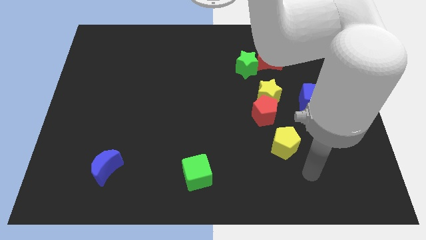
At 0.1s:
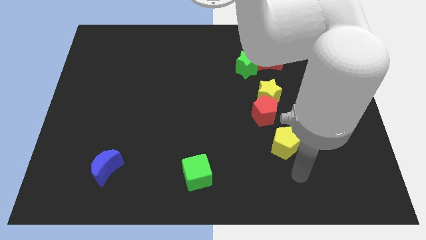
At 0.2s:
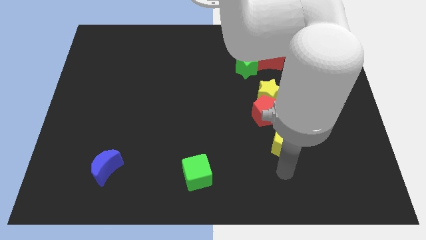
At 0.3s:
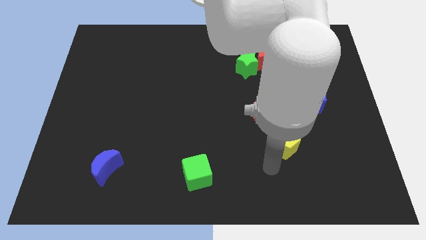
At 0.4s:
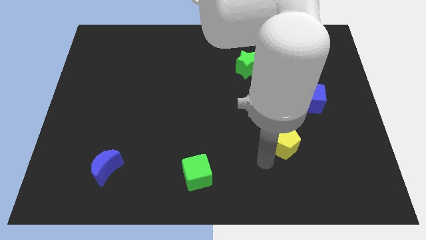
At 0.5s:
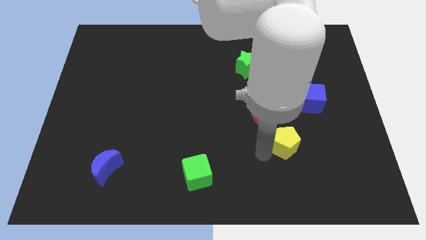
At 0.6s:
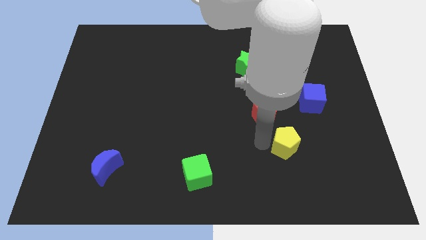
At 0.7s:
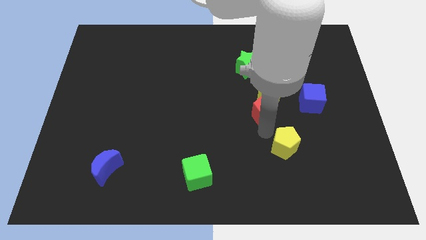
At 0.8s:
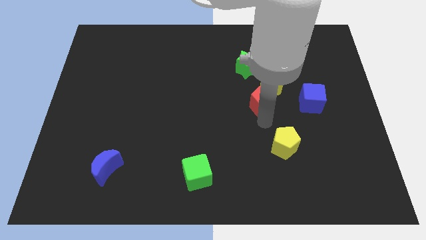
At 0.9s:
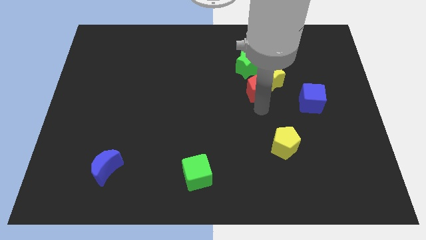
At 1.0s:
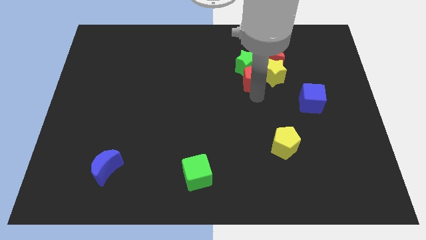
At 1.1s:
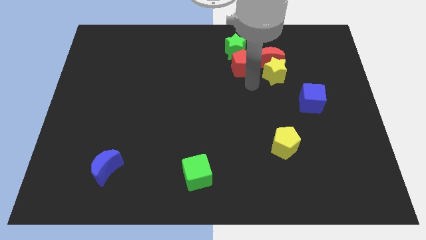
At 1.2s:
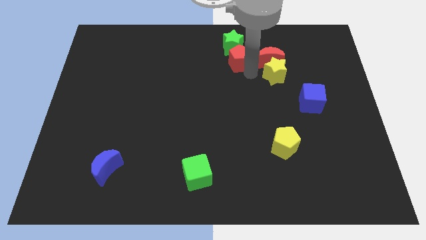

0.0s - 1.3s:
separate the yellow star from the red pentagon

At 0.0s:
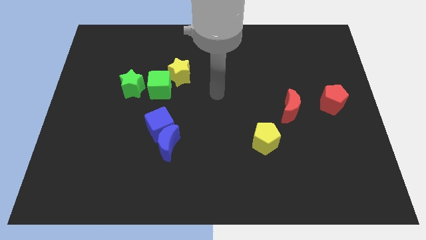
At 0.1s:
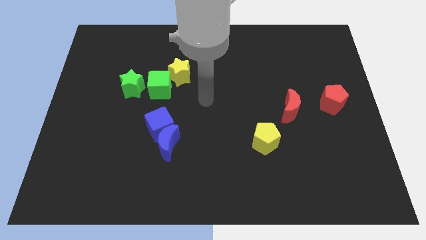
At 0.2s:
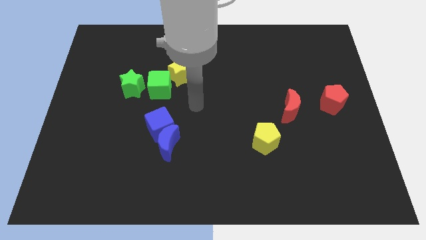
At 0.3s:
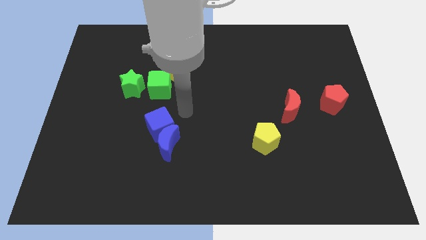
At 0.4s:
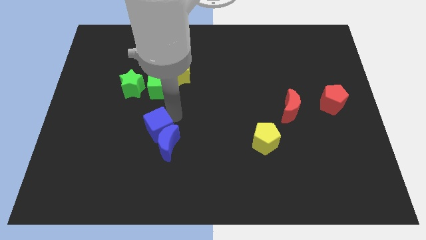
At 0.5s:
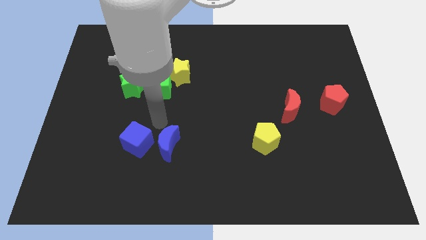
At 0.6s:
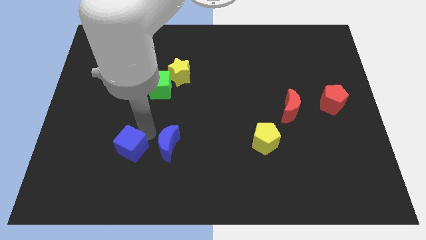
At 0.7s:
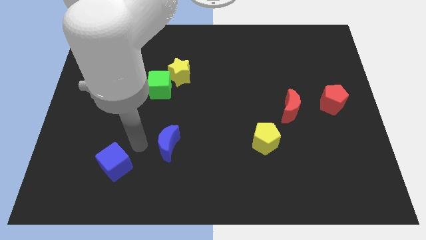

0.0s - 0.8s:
separate the blue moon from the blue cube

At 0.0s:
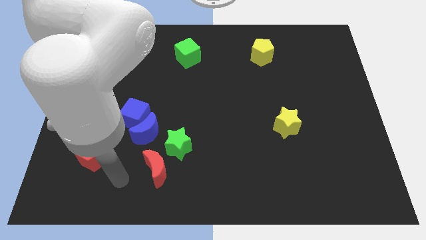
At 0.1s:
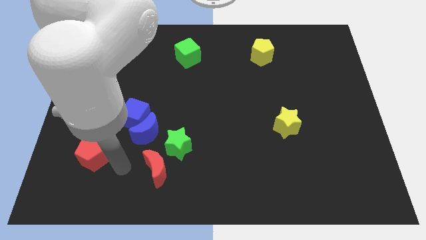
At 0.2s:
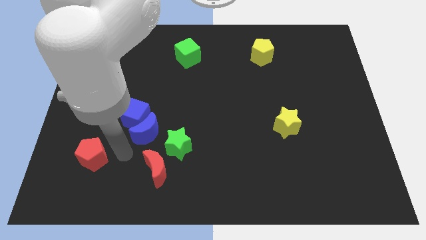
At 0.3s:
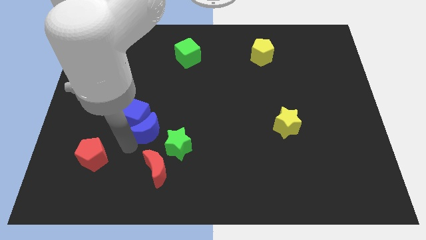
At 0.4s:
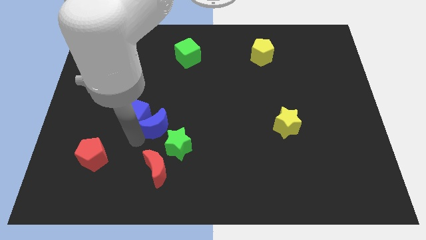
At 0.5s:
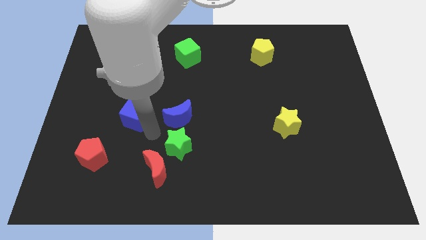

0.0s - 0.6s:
move the blue cube away from the blue moon

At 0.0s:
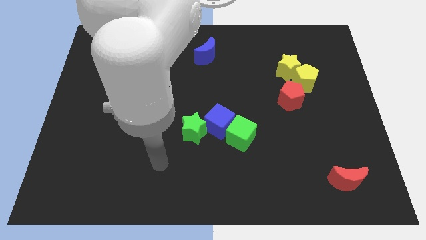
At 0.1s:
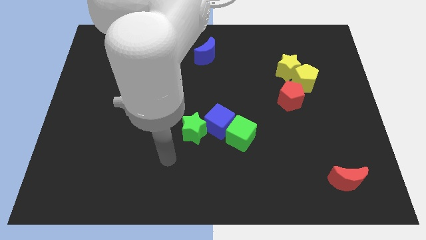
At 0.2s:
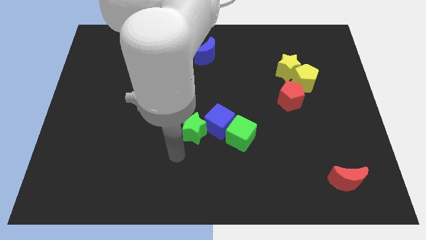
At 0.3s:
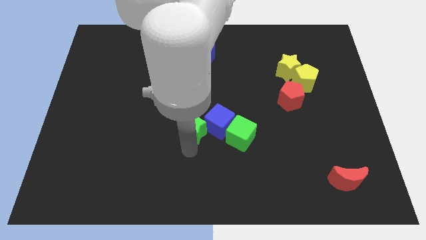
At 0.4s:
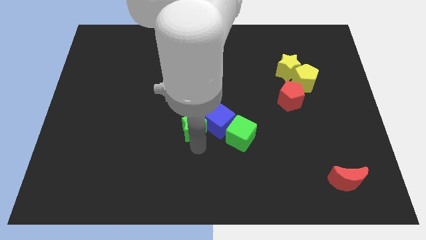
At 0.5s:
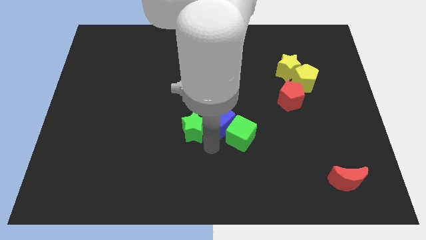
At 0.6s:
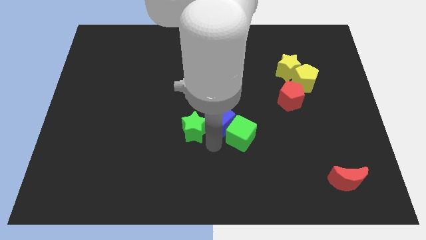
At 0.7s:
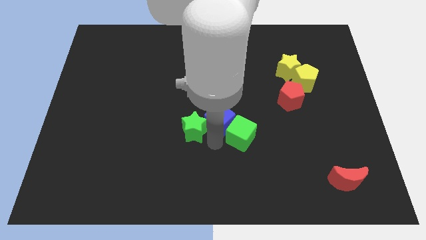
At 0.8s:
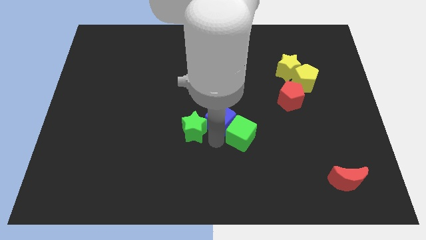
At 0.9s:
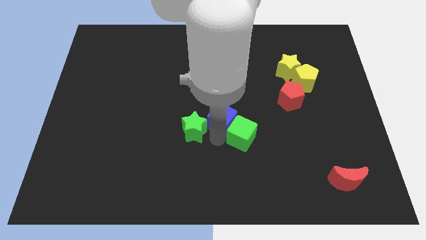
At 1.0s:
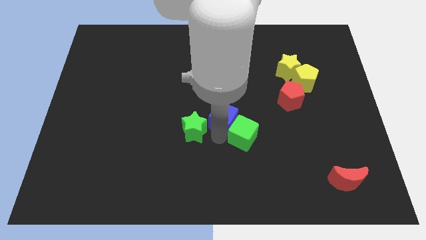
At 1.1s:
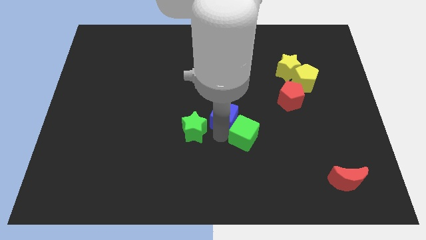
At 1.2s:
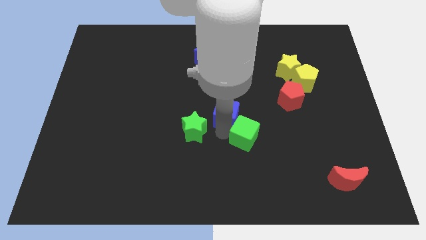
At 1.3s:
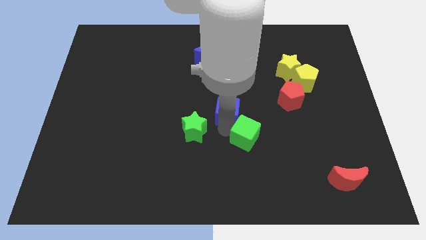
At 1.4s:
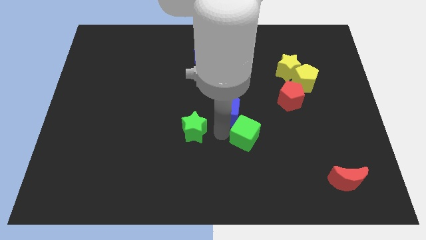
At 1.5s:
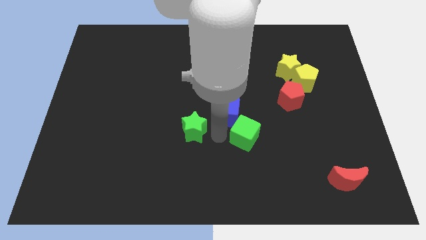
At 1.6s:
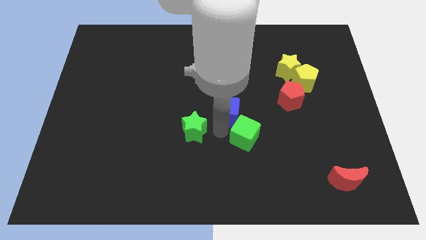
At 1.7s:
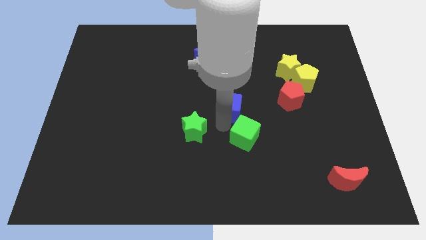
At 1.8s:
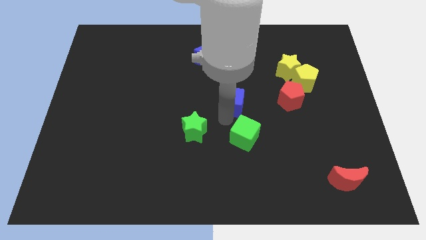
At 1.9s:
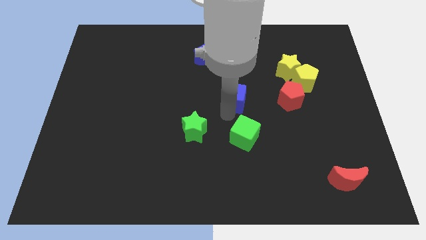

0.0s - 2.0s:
move the blue cube away from the green cube and green star

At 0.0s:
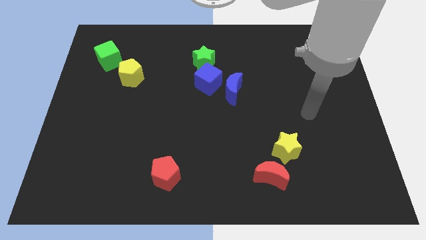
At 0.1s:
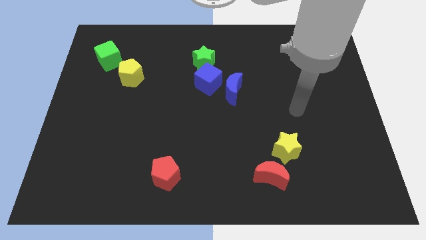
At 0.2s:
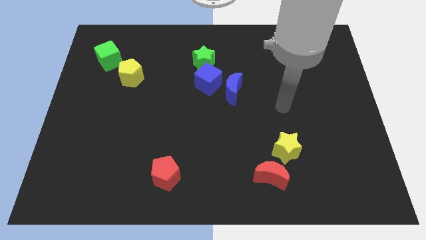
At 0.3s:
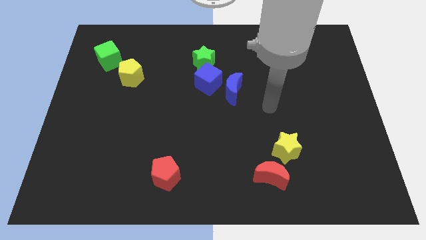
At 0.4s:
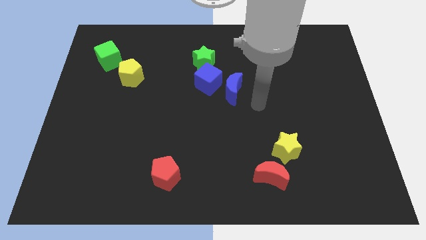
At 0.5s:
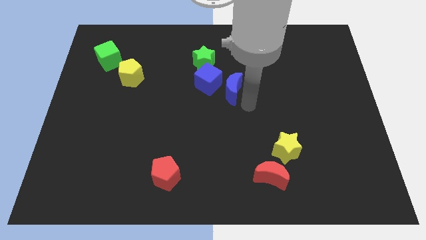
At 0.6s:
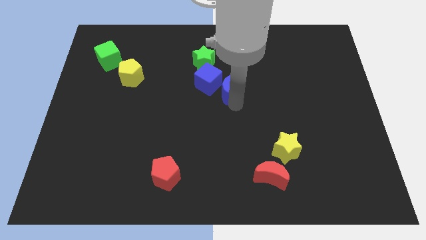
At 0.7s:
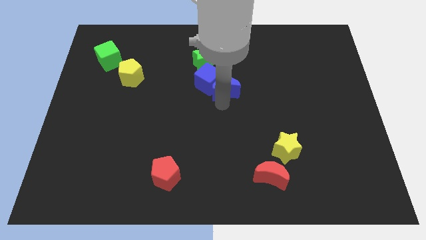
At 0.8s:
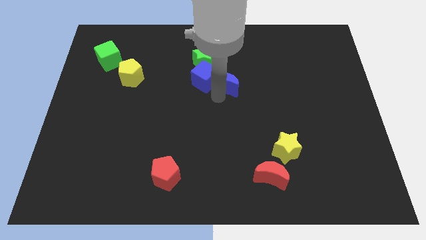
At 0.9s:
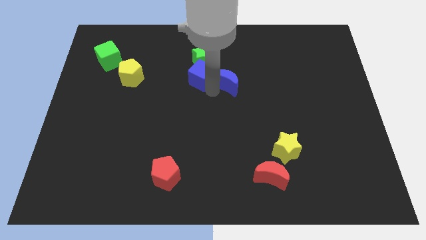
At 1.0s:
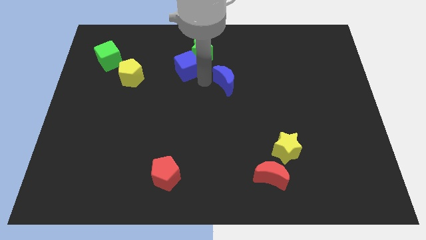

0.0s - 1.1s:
move the blue moon away from the blue cube

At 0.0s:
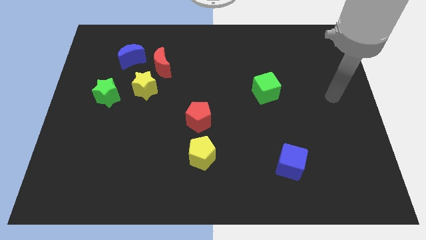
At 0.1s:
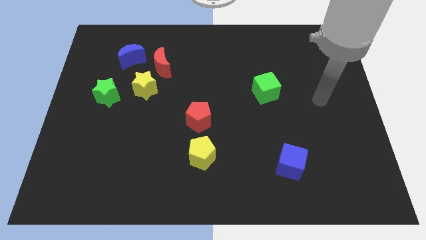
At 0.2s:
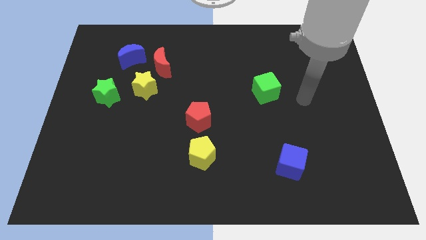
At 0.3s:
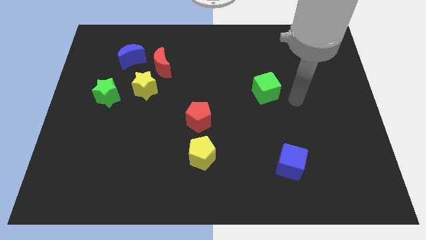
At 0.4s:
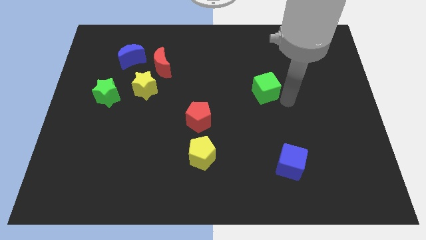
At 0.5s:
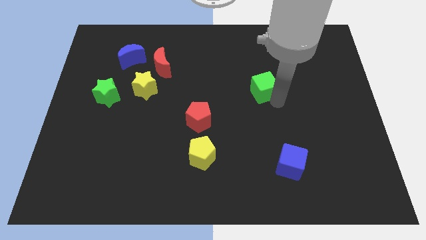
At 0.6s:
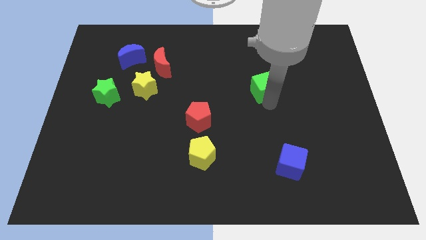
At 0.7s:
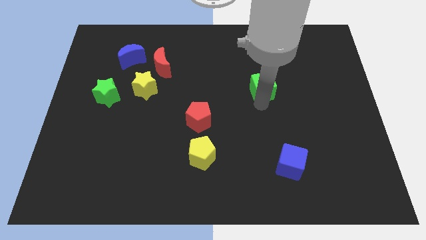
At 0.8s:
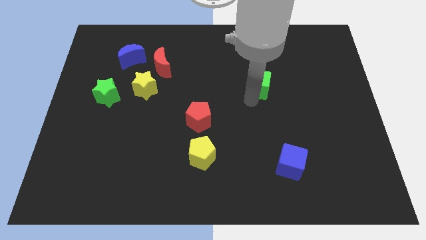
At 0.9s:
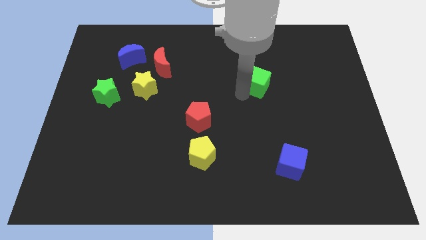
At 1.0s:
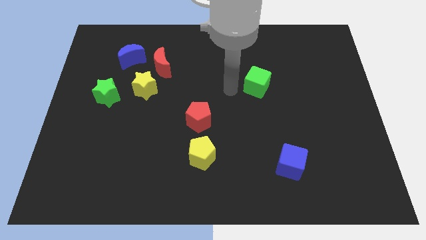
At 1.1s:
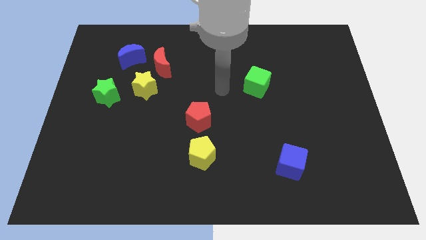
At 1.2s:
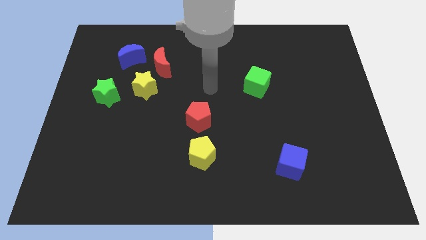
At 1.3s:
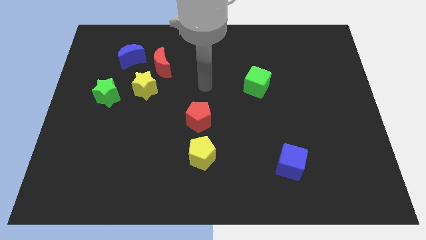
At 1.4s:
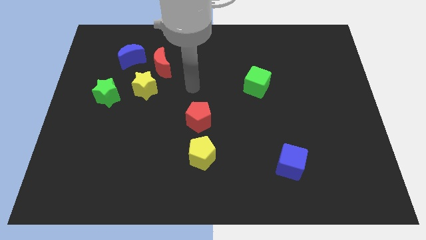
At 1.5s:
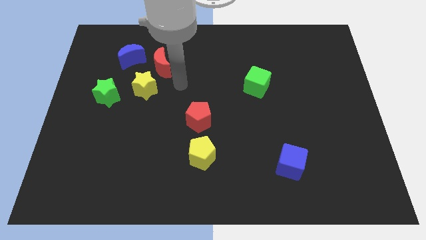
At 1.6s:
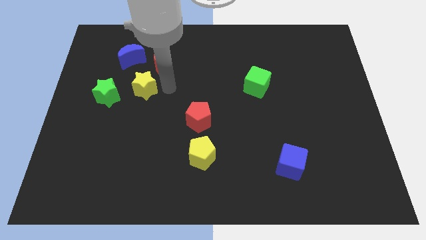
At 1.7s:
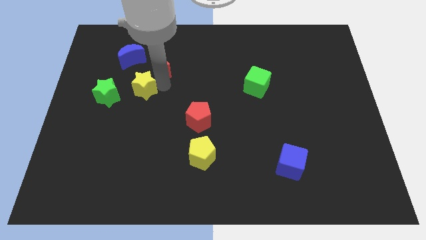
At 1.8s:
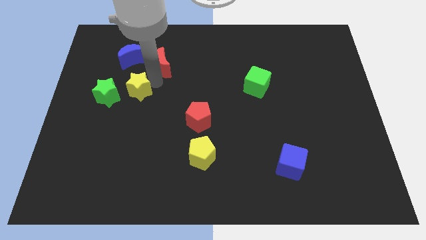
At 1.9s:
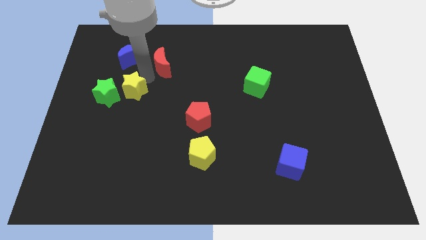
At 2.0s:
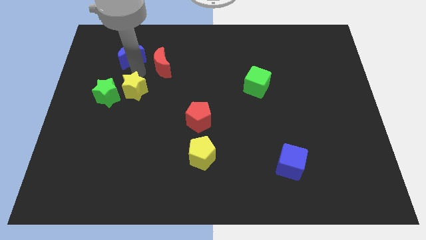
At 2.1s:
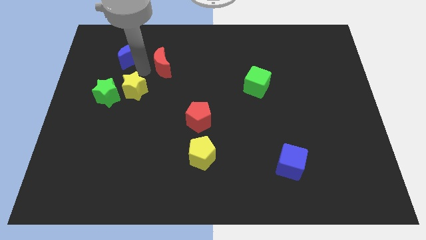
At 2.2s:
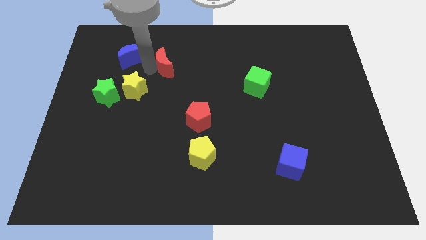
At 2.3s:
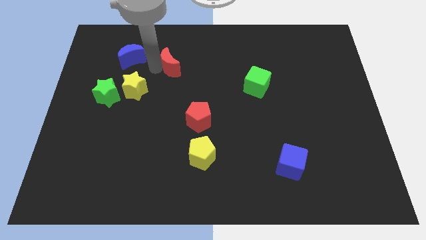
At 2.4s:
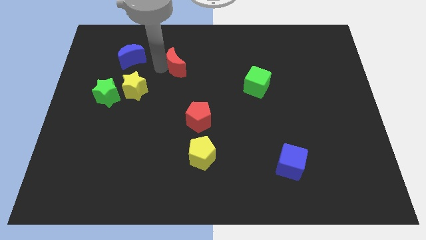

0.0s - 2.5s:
move the red moon away from the yellow star and blue moon

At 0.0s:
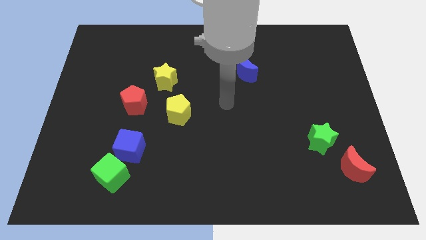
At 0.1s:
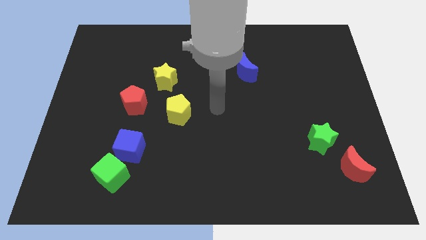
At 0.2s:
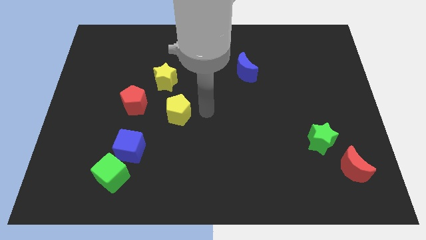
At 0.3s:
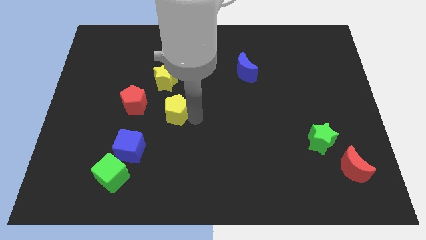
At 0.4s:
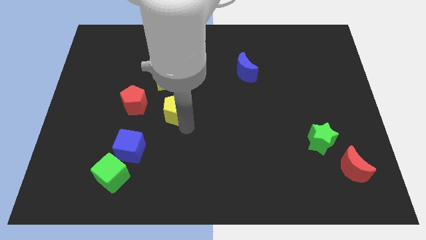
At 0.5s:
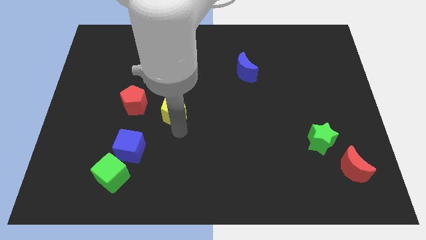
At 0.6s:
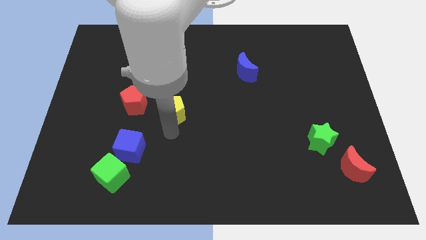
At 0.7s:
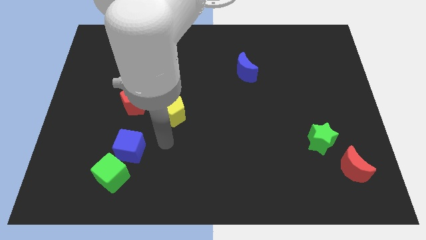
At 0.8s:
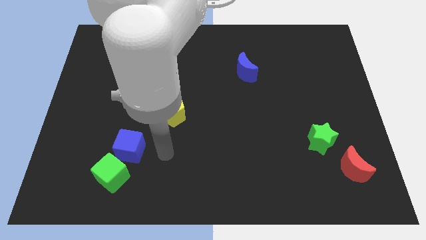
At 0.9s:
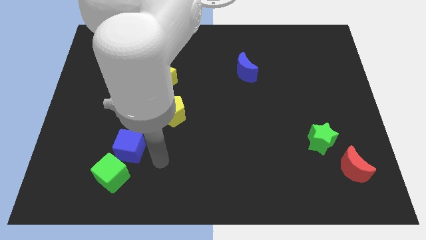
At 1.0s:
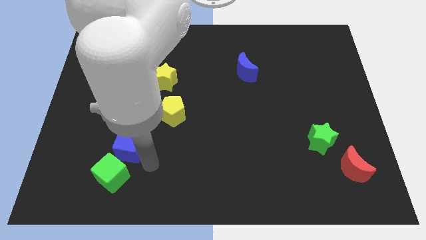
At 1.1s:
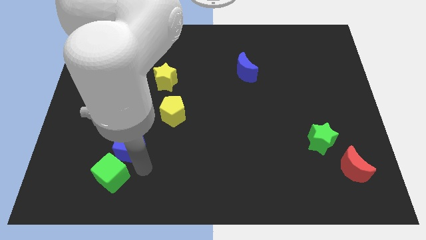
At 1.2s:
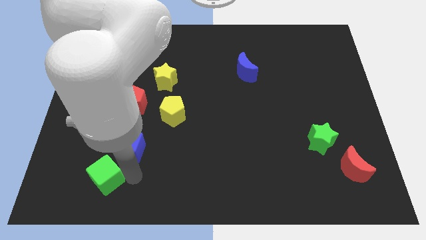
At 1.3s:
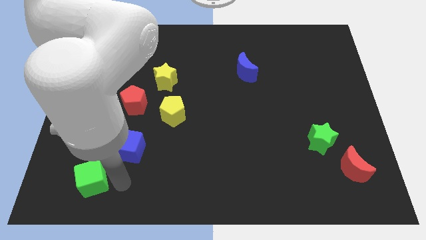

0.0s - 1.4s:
pull the blue cube apart from the green cube
